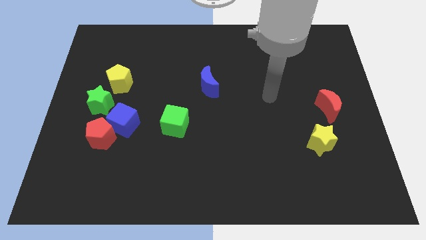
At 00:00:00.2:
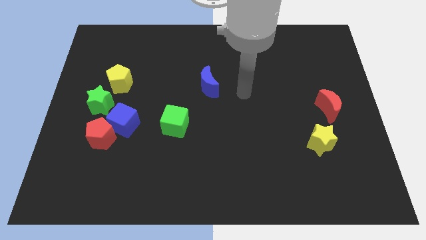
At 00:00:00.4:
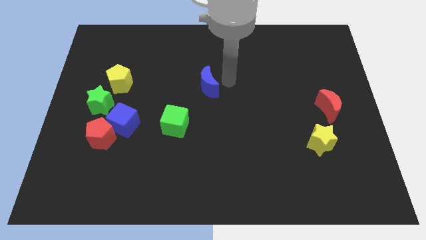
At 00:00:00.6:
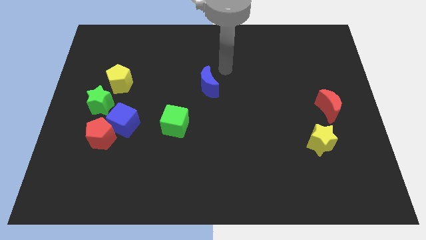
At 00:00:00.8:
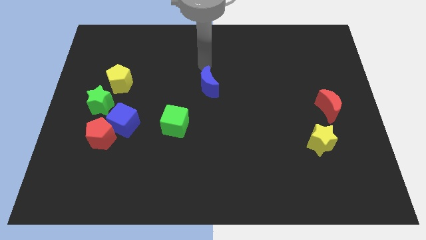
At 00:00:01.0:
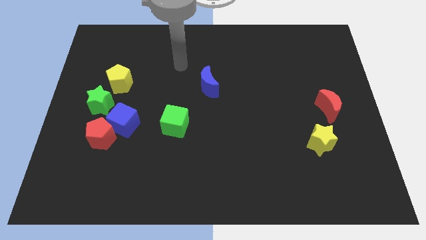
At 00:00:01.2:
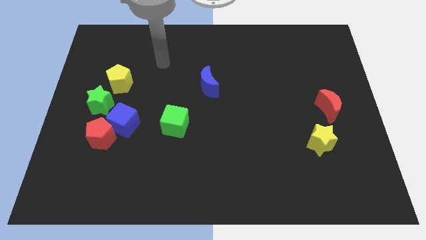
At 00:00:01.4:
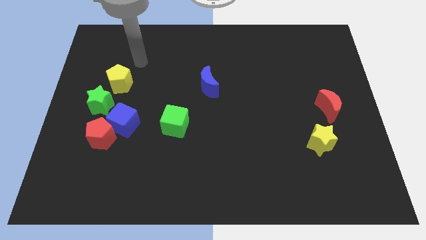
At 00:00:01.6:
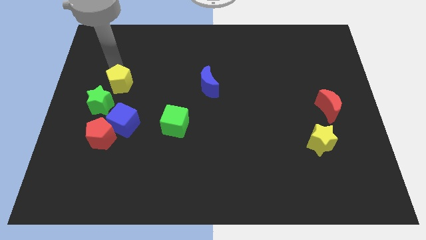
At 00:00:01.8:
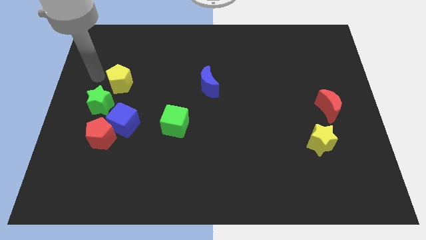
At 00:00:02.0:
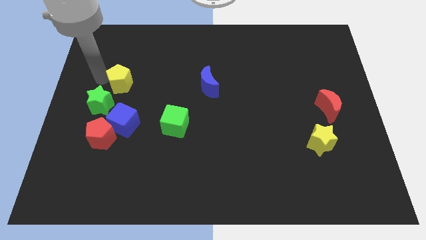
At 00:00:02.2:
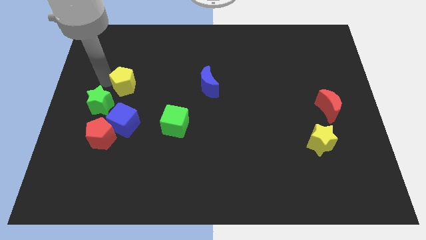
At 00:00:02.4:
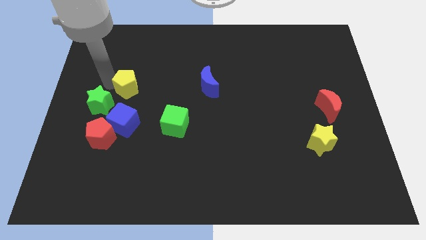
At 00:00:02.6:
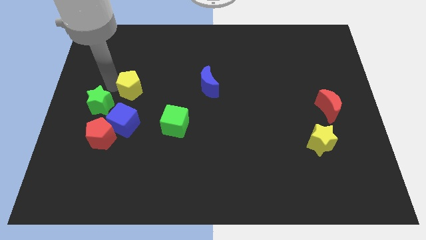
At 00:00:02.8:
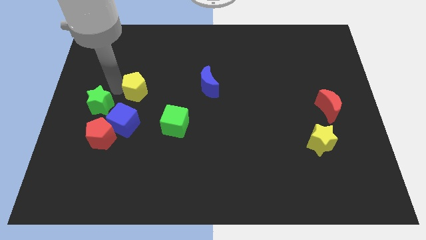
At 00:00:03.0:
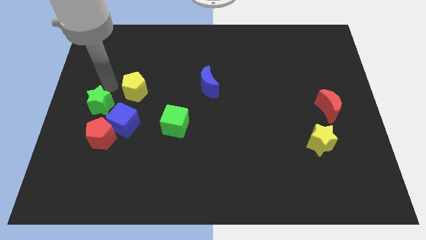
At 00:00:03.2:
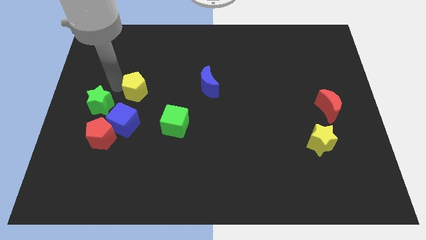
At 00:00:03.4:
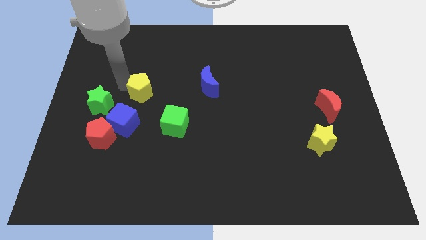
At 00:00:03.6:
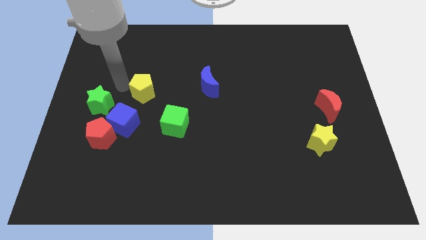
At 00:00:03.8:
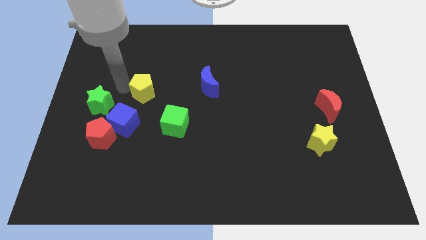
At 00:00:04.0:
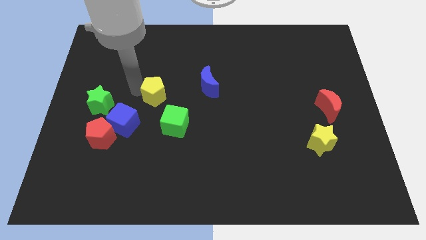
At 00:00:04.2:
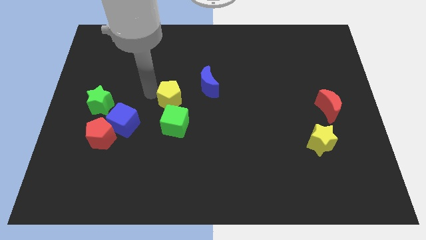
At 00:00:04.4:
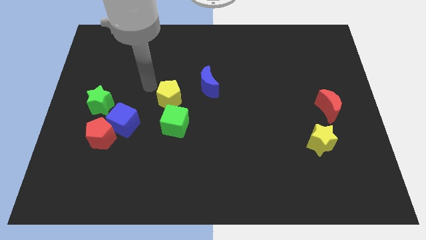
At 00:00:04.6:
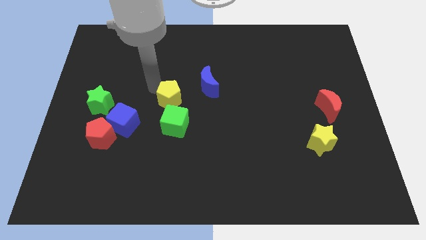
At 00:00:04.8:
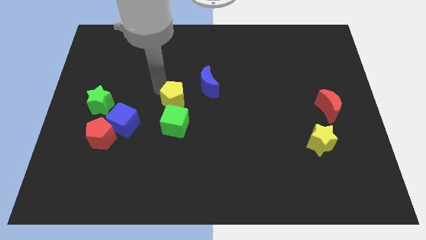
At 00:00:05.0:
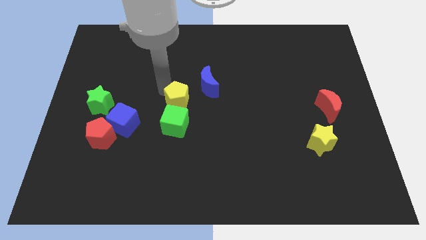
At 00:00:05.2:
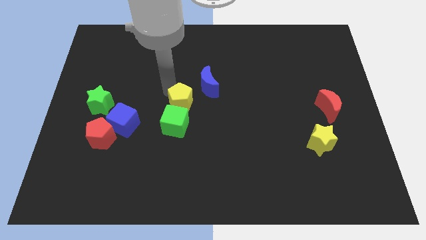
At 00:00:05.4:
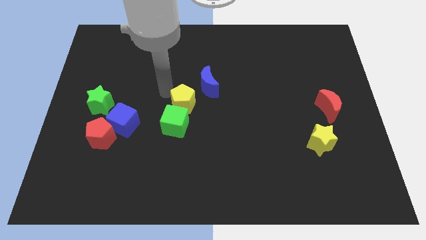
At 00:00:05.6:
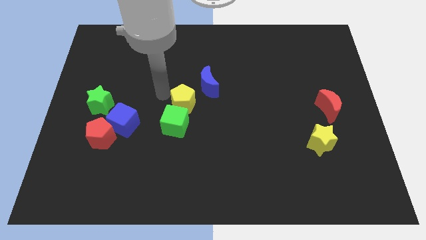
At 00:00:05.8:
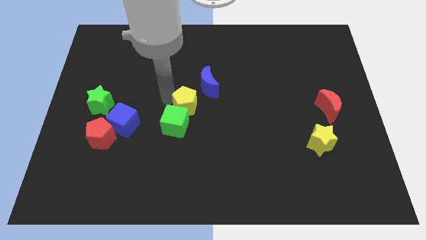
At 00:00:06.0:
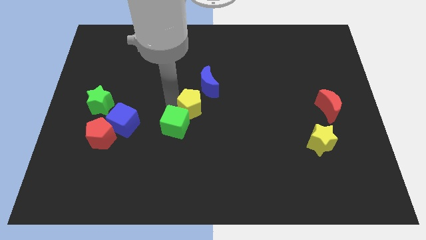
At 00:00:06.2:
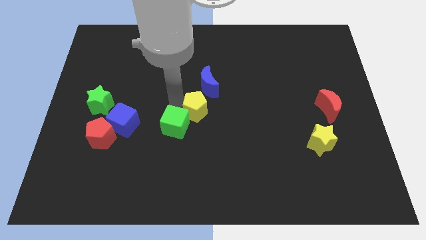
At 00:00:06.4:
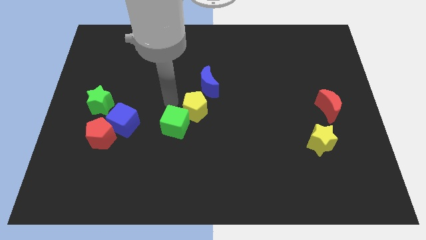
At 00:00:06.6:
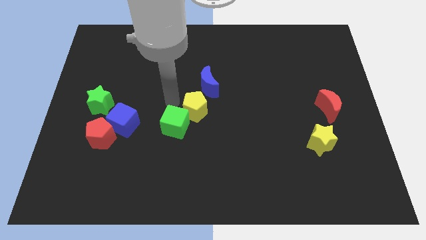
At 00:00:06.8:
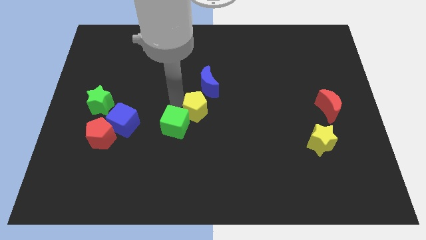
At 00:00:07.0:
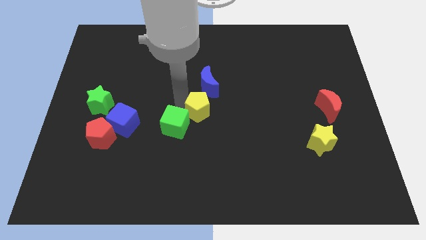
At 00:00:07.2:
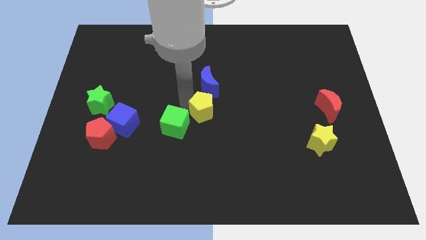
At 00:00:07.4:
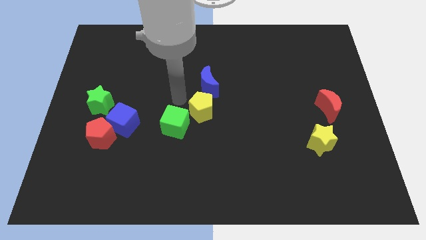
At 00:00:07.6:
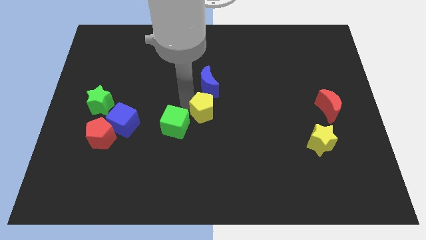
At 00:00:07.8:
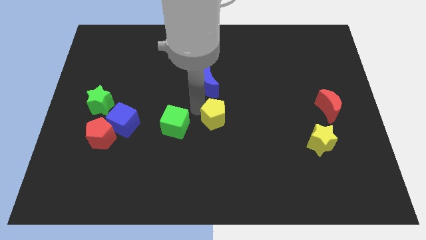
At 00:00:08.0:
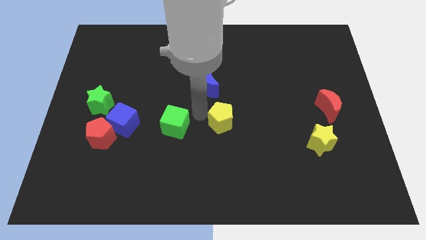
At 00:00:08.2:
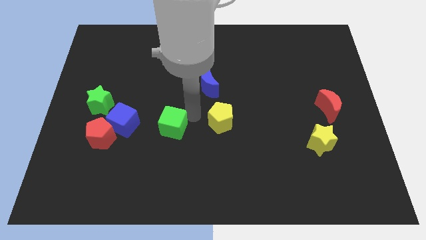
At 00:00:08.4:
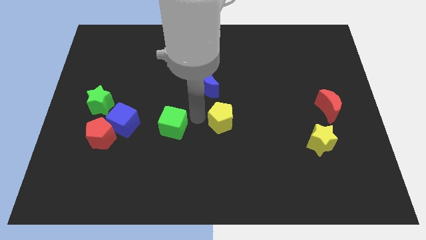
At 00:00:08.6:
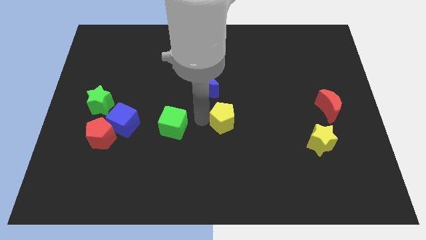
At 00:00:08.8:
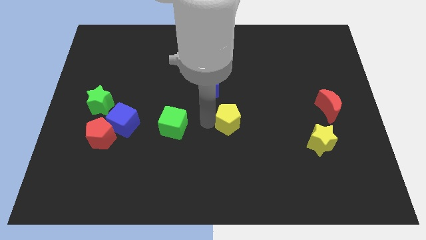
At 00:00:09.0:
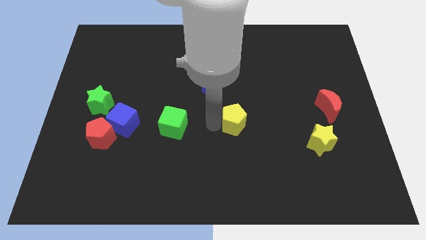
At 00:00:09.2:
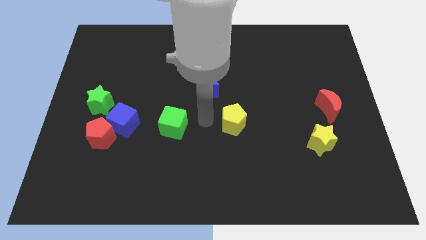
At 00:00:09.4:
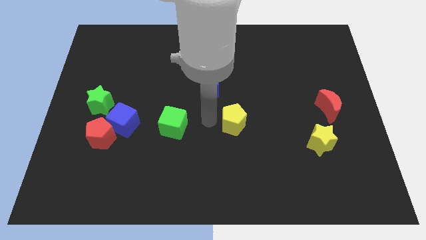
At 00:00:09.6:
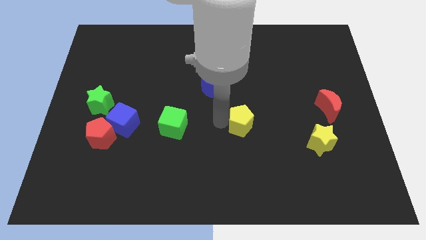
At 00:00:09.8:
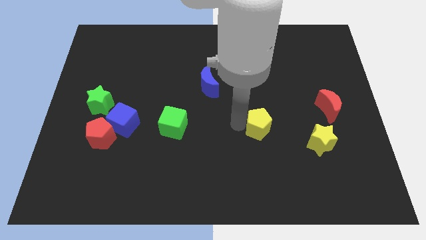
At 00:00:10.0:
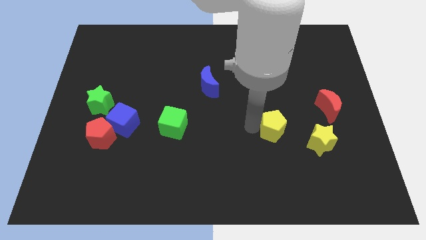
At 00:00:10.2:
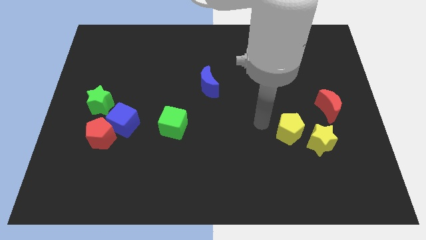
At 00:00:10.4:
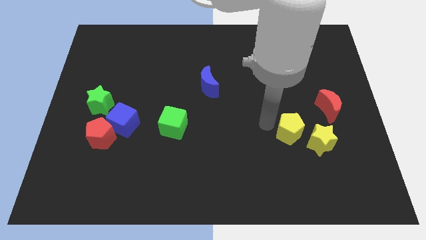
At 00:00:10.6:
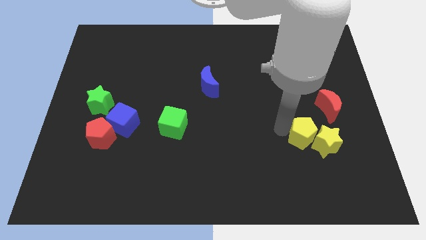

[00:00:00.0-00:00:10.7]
put the yellow pentagon close to the yellow star
